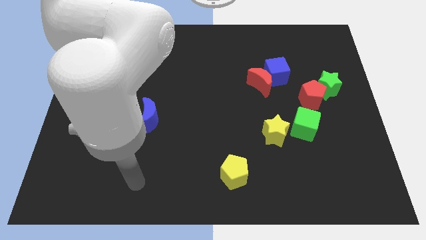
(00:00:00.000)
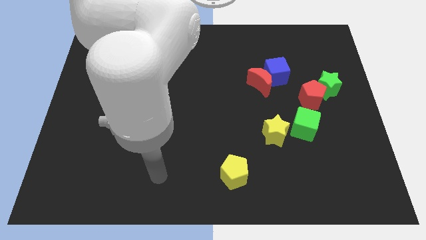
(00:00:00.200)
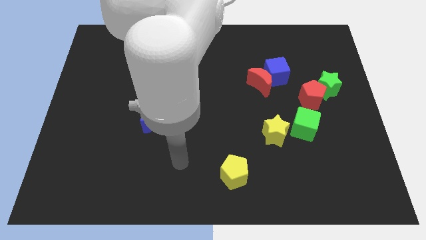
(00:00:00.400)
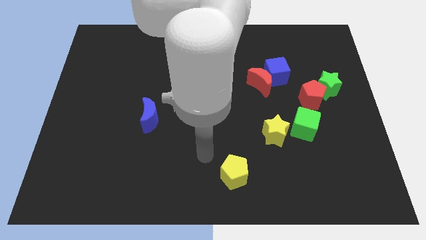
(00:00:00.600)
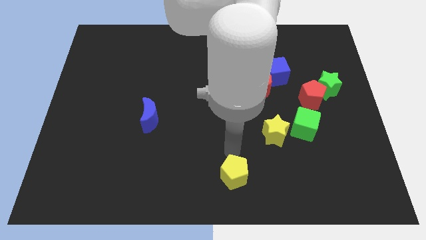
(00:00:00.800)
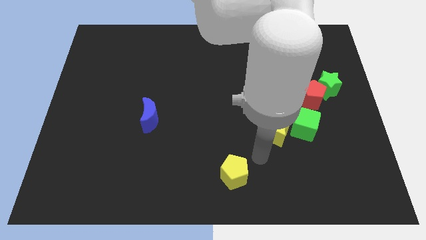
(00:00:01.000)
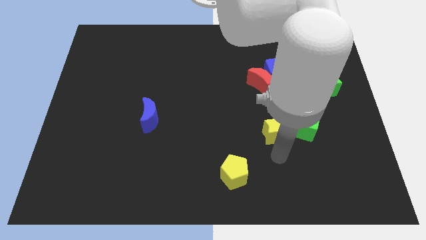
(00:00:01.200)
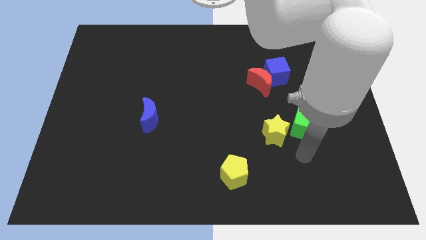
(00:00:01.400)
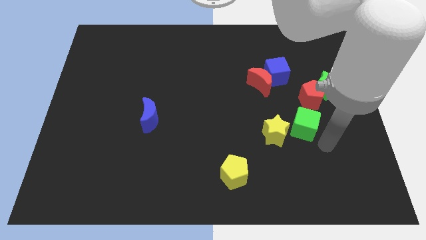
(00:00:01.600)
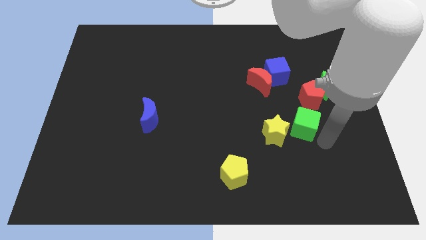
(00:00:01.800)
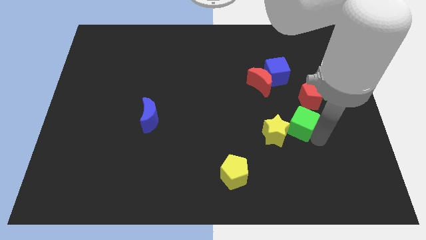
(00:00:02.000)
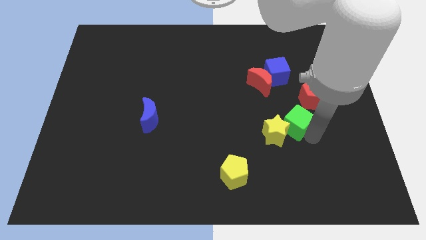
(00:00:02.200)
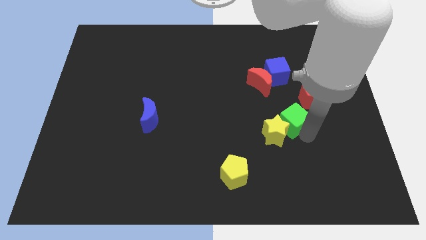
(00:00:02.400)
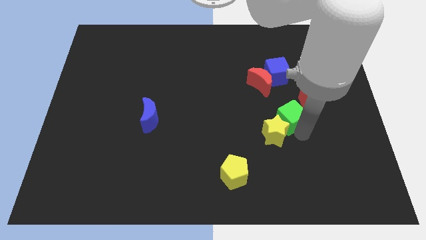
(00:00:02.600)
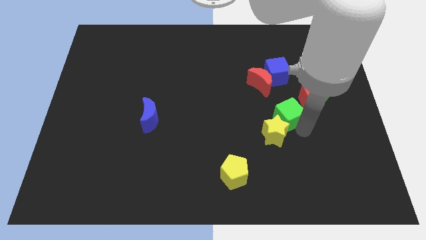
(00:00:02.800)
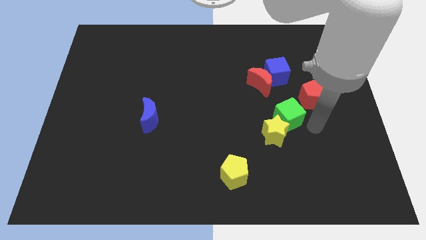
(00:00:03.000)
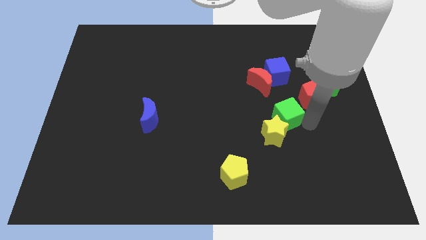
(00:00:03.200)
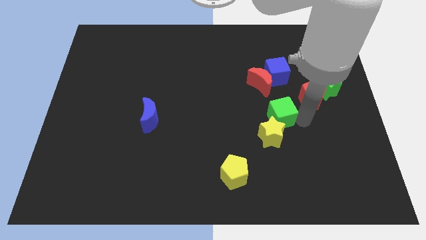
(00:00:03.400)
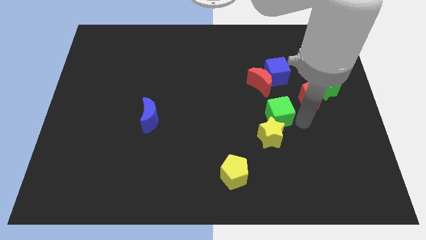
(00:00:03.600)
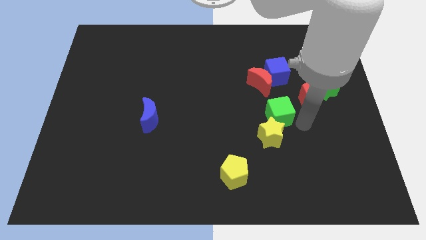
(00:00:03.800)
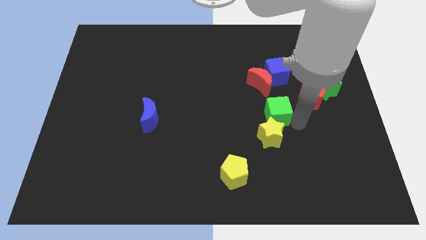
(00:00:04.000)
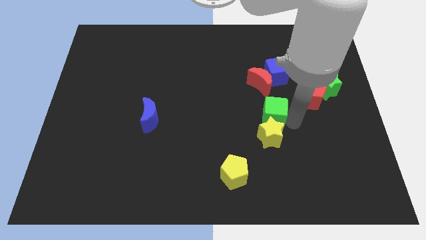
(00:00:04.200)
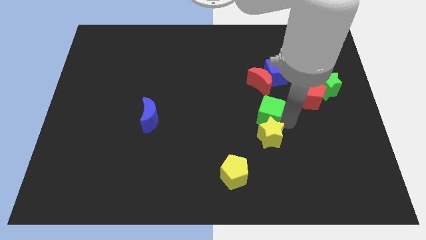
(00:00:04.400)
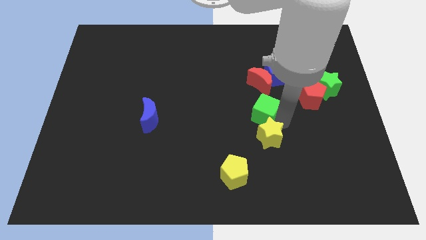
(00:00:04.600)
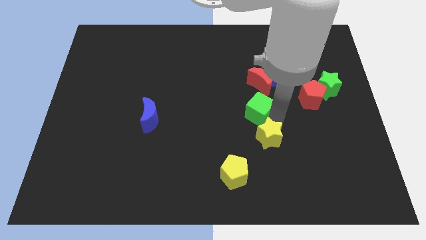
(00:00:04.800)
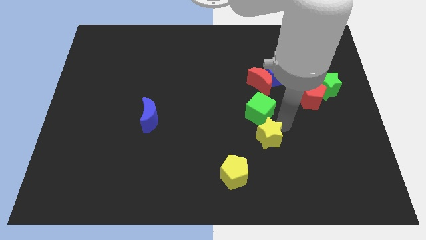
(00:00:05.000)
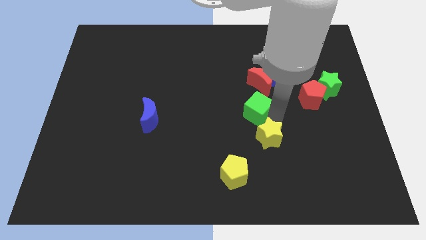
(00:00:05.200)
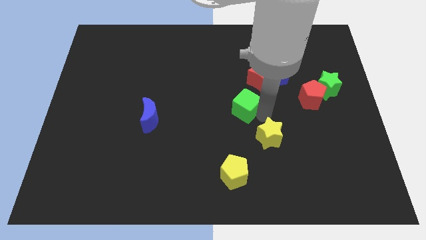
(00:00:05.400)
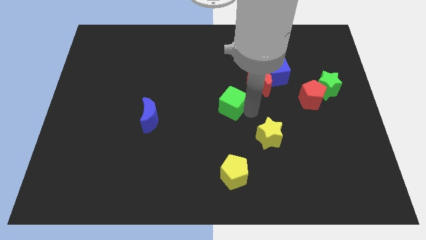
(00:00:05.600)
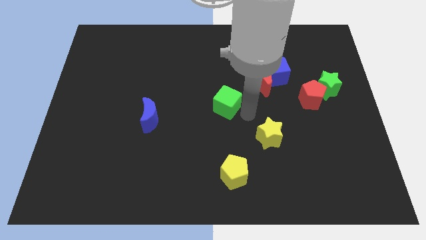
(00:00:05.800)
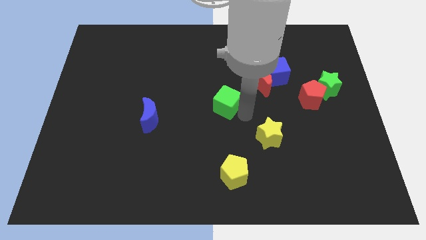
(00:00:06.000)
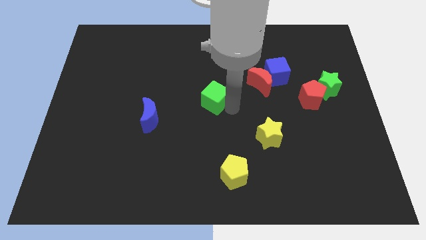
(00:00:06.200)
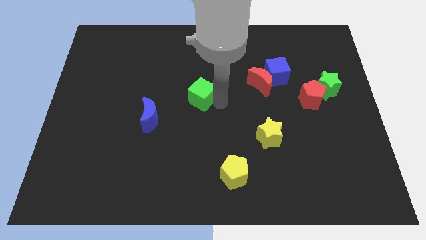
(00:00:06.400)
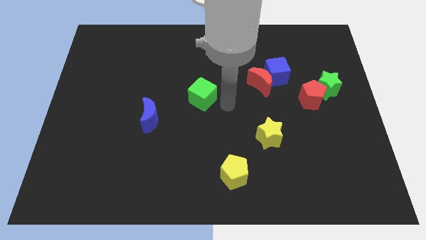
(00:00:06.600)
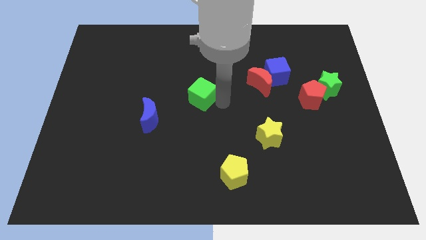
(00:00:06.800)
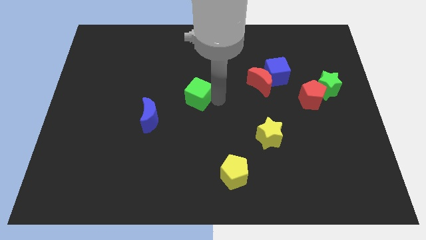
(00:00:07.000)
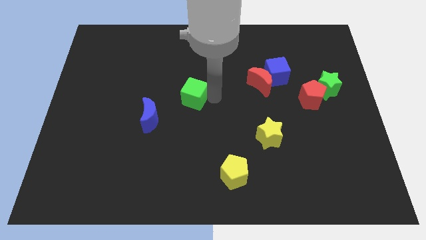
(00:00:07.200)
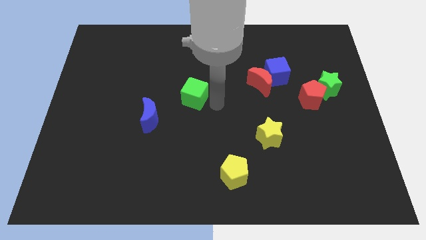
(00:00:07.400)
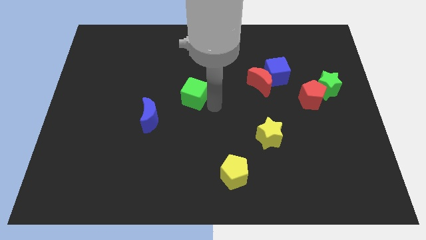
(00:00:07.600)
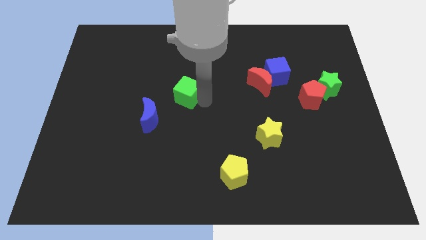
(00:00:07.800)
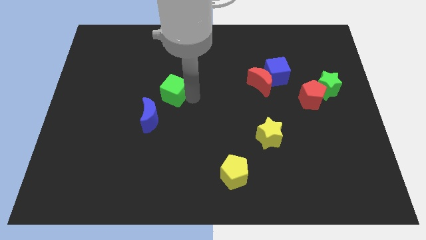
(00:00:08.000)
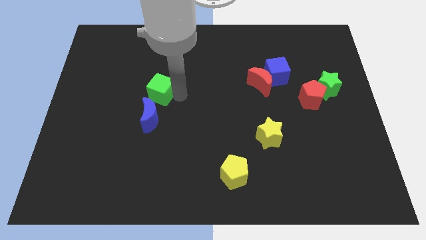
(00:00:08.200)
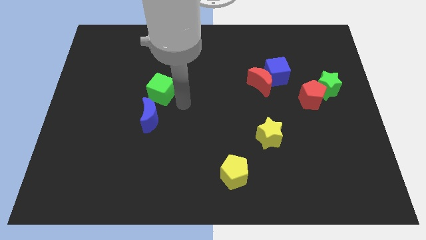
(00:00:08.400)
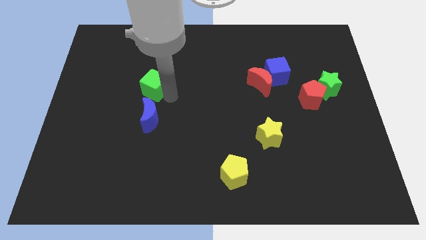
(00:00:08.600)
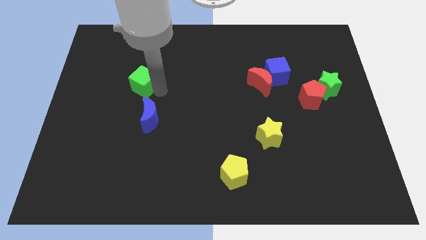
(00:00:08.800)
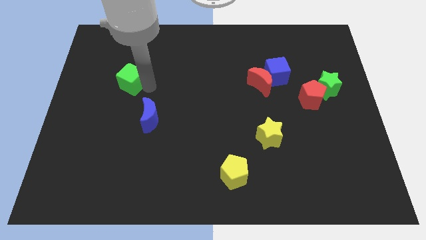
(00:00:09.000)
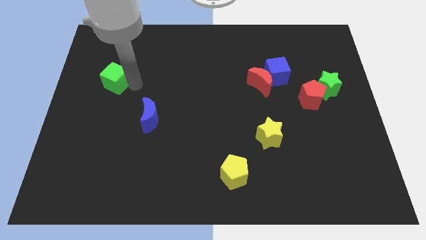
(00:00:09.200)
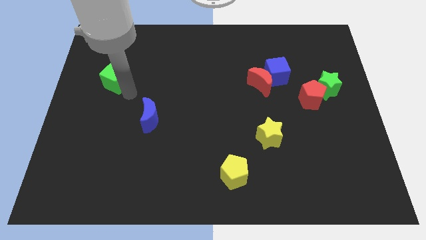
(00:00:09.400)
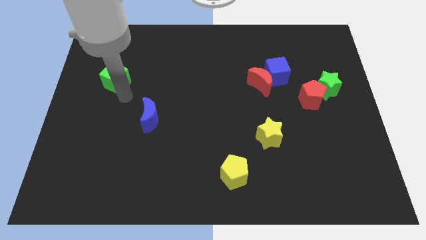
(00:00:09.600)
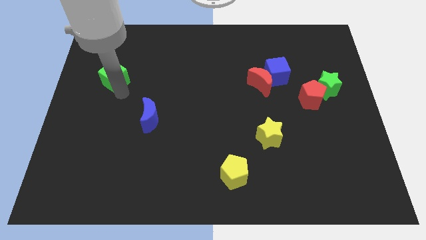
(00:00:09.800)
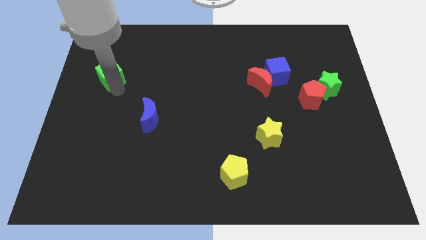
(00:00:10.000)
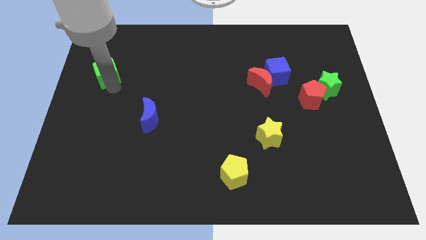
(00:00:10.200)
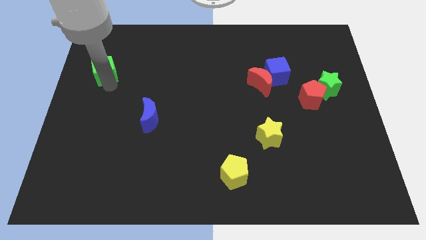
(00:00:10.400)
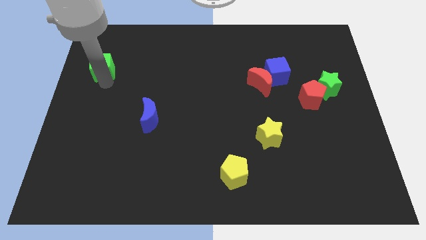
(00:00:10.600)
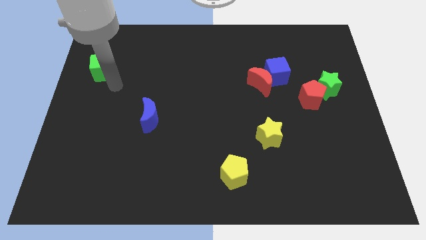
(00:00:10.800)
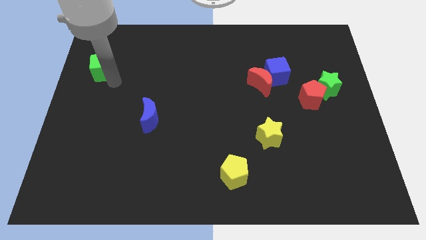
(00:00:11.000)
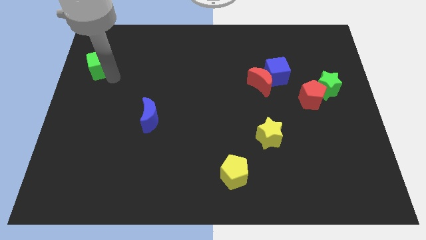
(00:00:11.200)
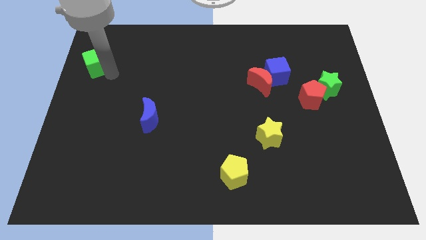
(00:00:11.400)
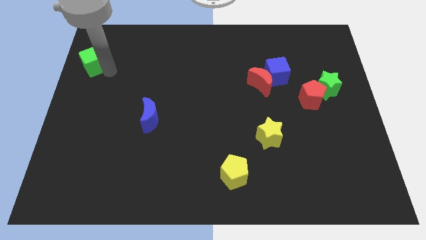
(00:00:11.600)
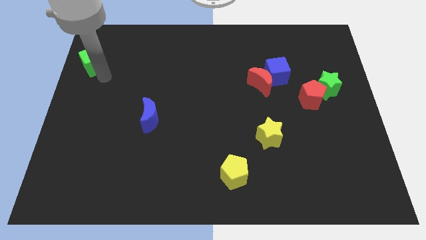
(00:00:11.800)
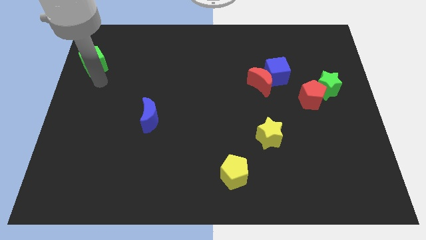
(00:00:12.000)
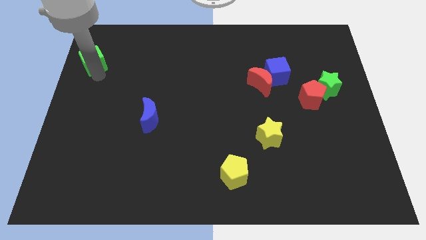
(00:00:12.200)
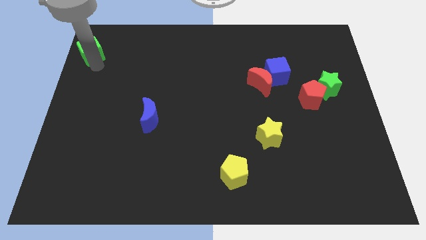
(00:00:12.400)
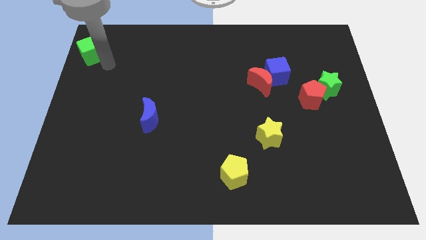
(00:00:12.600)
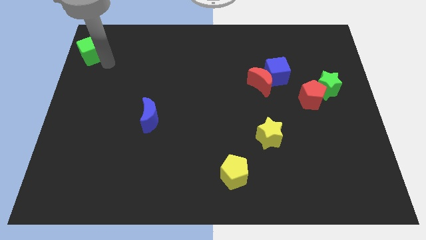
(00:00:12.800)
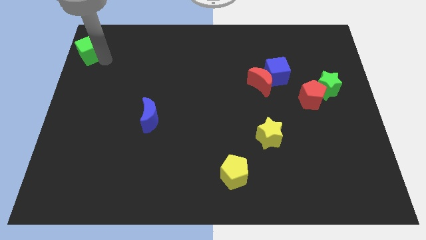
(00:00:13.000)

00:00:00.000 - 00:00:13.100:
slide the green cube to the top left of the board

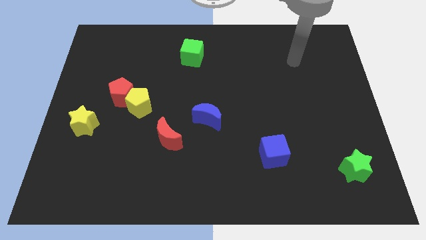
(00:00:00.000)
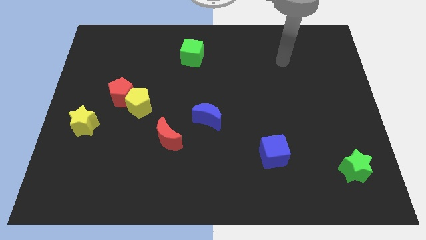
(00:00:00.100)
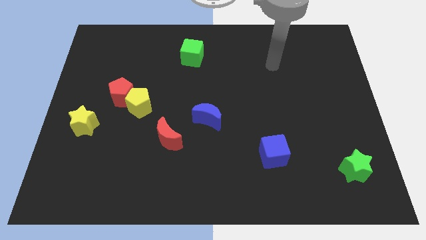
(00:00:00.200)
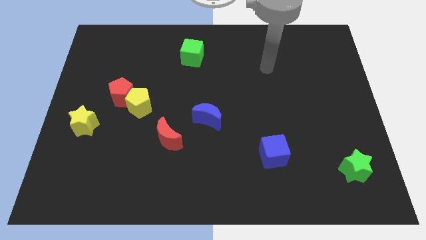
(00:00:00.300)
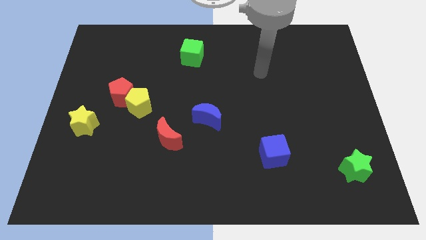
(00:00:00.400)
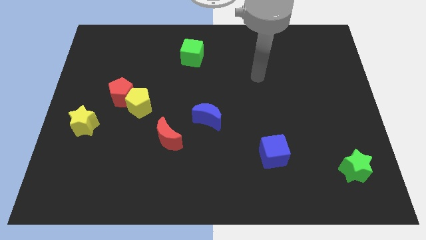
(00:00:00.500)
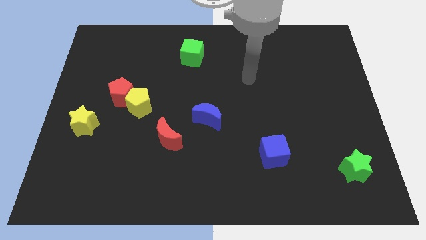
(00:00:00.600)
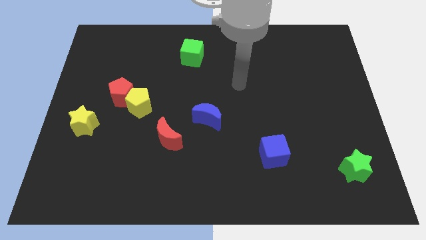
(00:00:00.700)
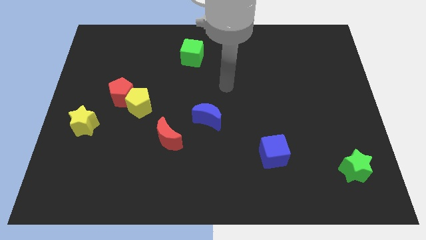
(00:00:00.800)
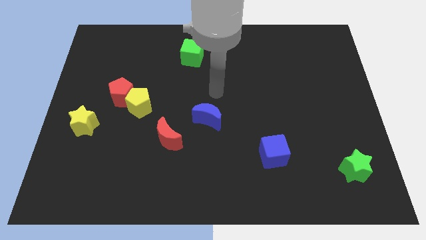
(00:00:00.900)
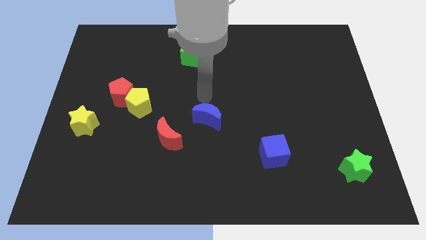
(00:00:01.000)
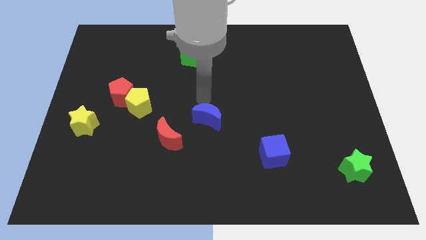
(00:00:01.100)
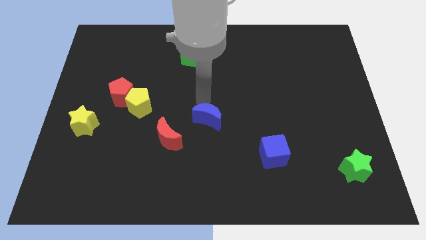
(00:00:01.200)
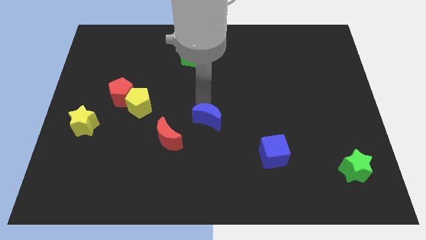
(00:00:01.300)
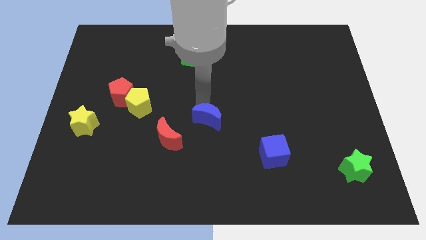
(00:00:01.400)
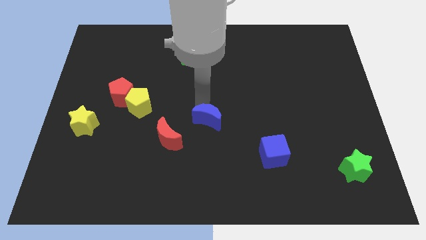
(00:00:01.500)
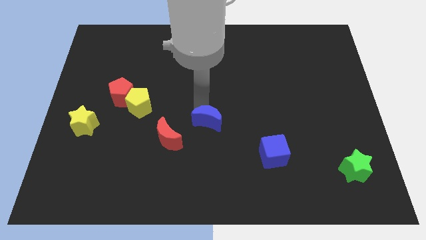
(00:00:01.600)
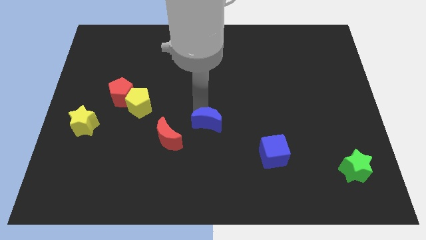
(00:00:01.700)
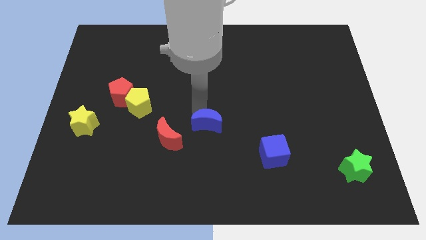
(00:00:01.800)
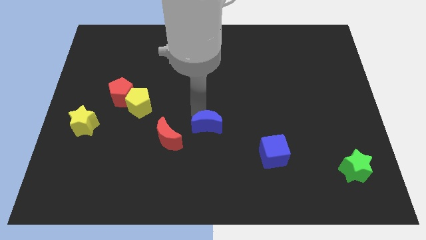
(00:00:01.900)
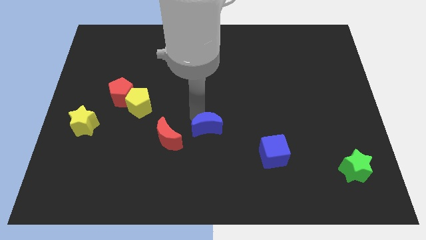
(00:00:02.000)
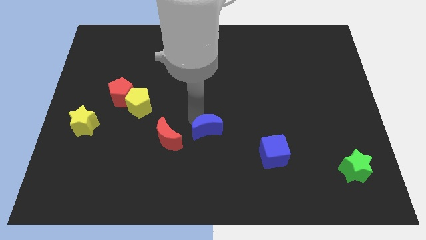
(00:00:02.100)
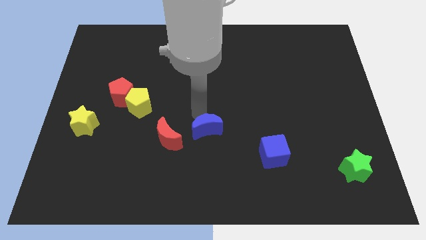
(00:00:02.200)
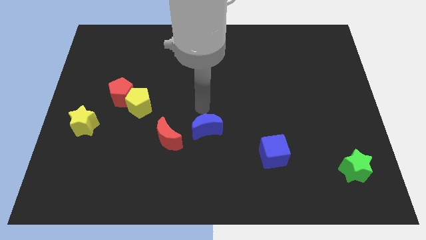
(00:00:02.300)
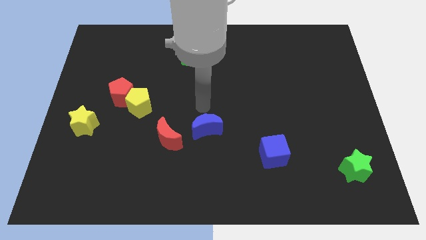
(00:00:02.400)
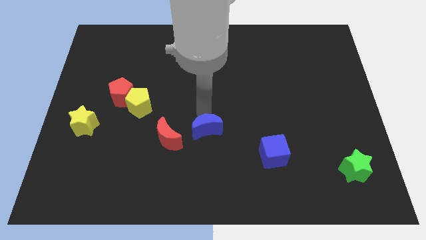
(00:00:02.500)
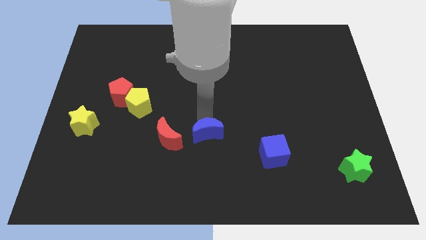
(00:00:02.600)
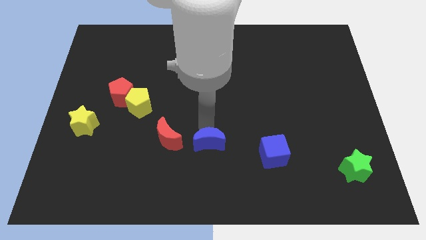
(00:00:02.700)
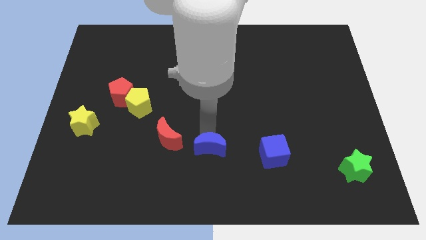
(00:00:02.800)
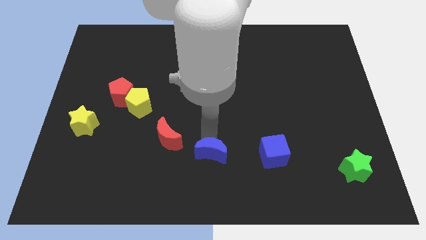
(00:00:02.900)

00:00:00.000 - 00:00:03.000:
put the blue moon to the bottom
